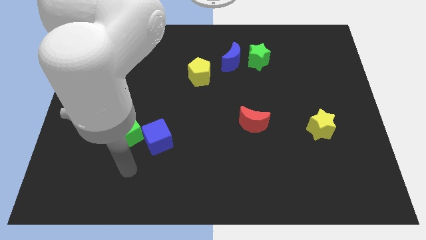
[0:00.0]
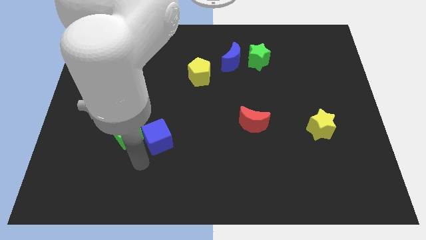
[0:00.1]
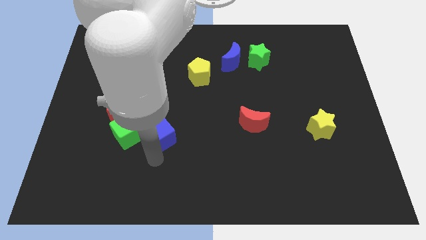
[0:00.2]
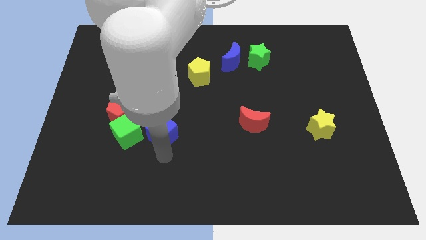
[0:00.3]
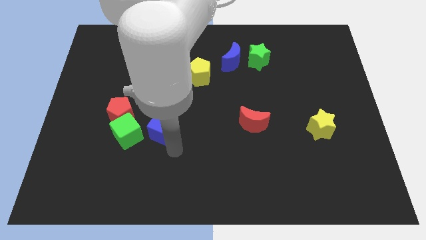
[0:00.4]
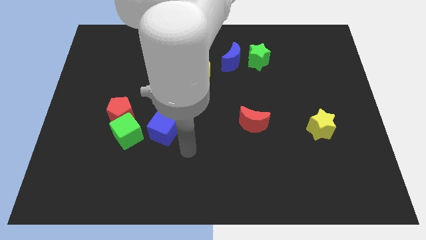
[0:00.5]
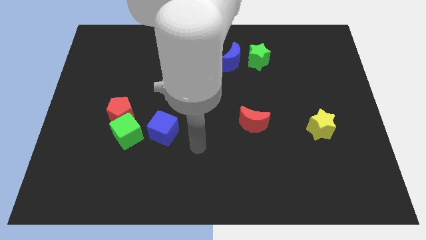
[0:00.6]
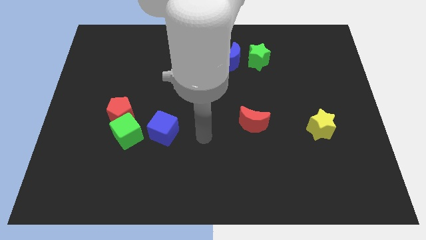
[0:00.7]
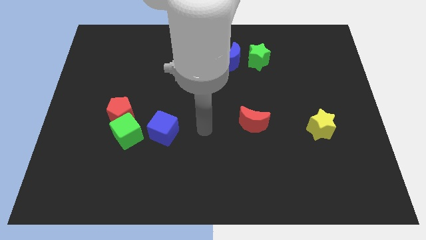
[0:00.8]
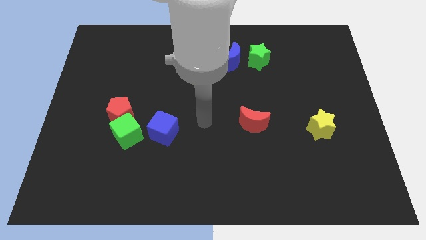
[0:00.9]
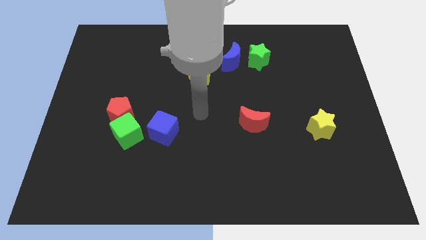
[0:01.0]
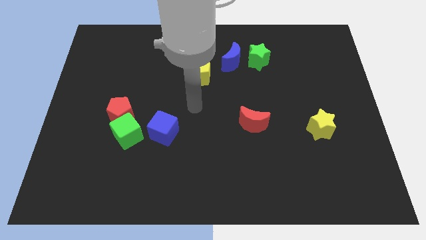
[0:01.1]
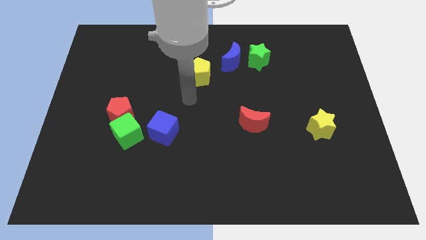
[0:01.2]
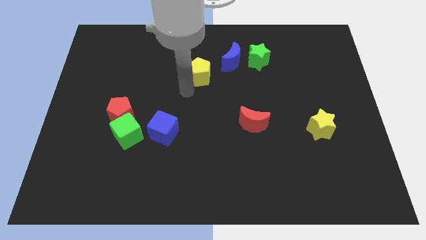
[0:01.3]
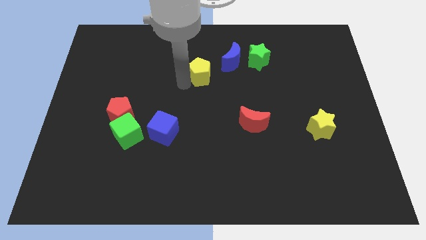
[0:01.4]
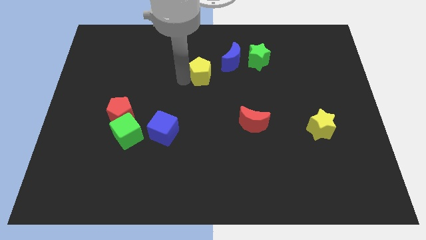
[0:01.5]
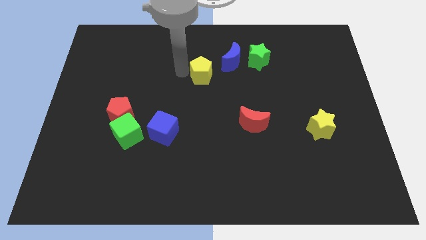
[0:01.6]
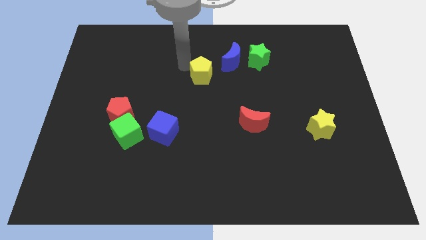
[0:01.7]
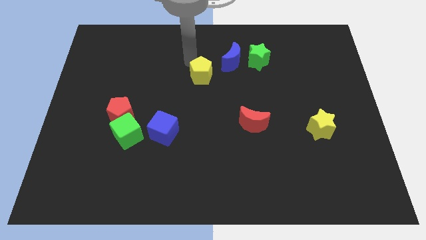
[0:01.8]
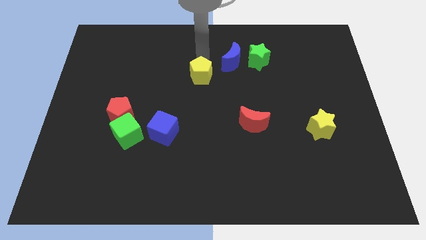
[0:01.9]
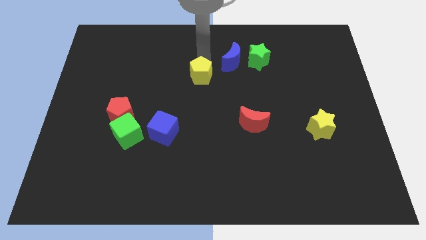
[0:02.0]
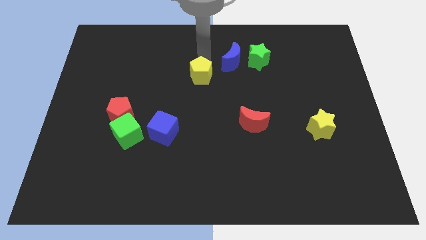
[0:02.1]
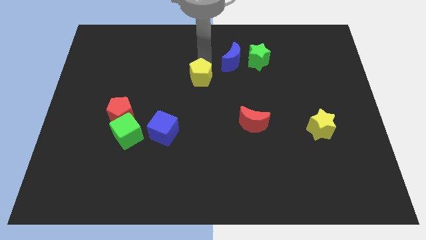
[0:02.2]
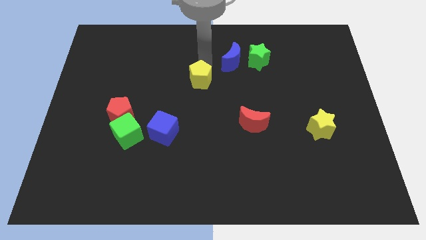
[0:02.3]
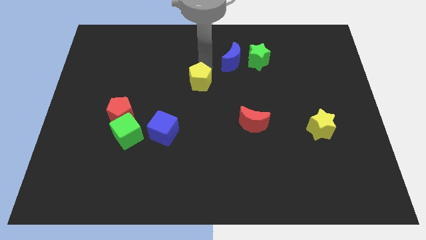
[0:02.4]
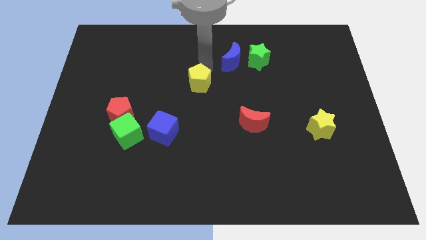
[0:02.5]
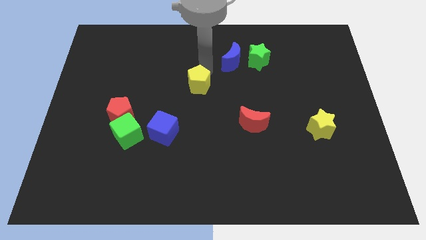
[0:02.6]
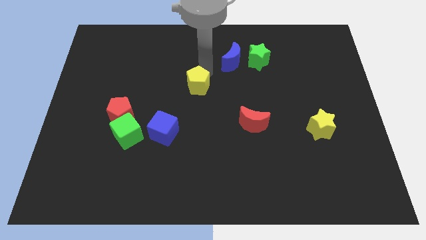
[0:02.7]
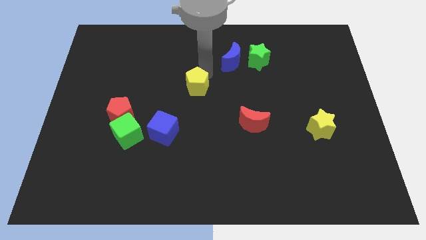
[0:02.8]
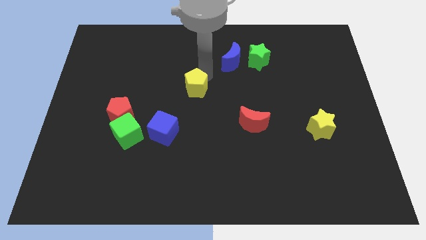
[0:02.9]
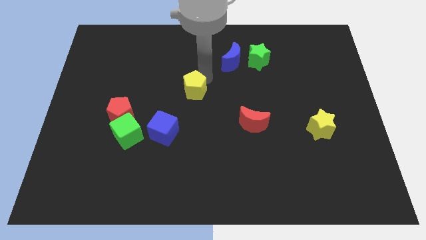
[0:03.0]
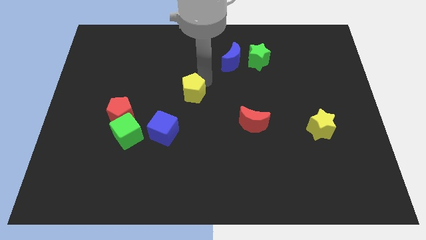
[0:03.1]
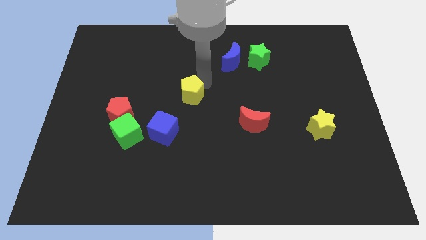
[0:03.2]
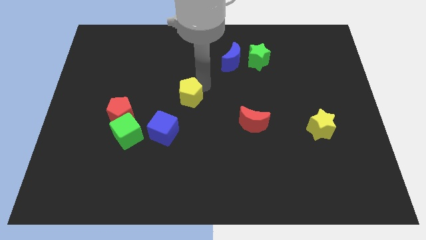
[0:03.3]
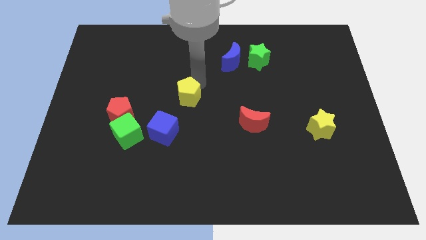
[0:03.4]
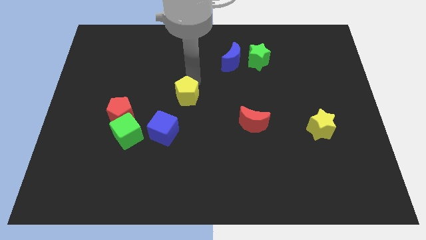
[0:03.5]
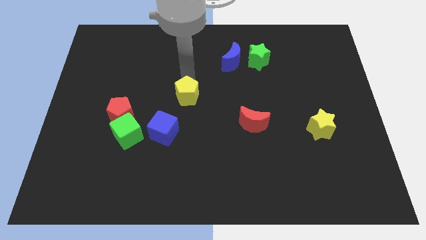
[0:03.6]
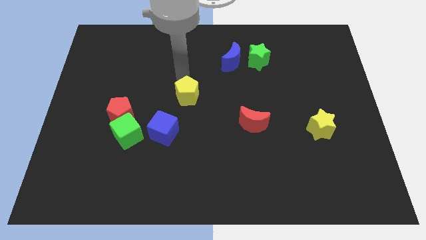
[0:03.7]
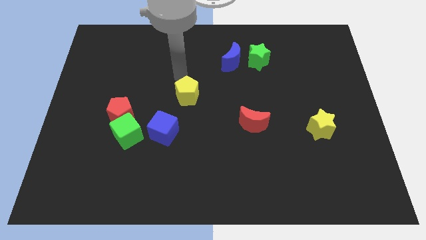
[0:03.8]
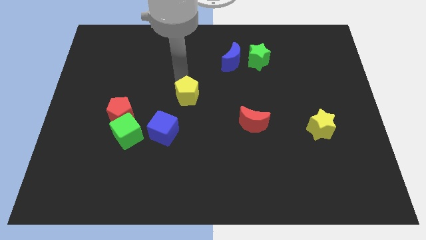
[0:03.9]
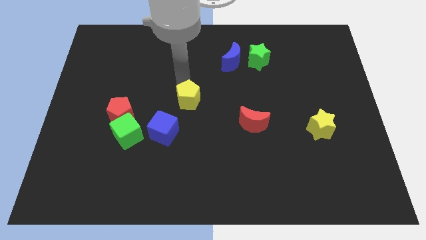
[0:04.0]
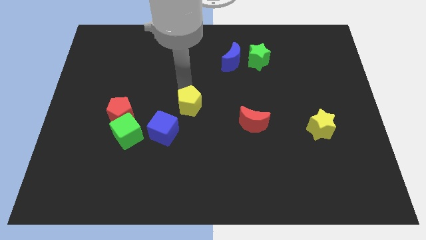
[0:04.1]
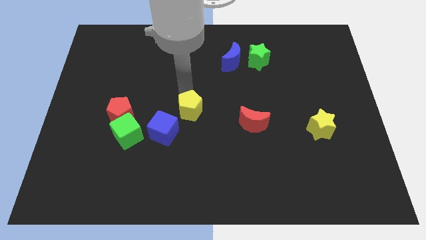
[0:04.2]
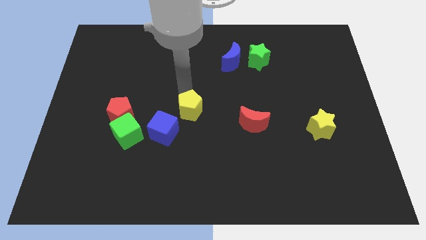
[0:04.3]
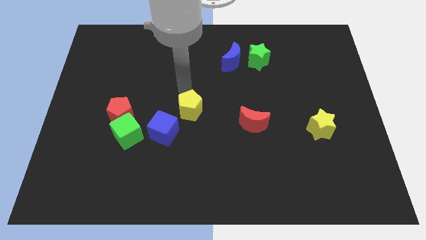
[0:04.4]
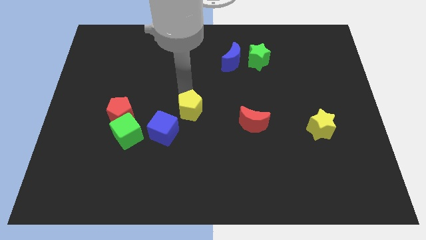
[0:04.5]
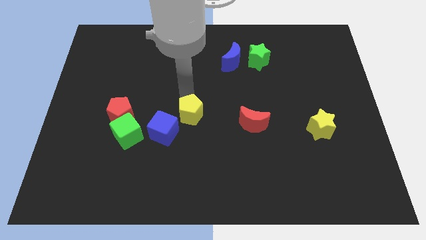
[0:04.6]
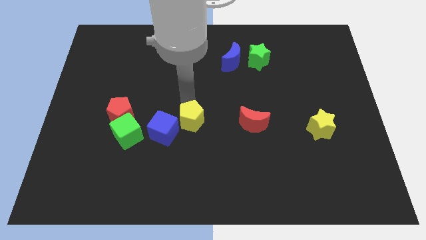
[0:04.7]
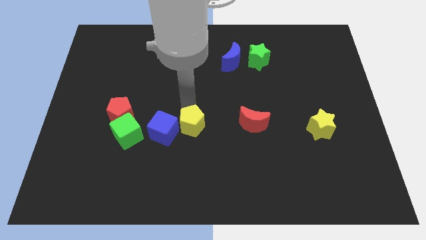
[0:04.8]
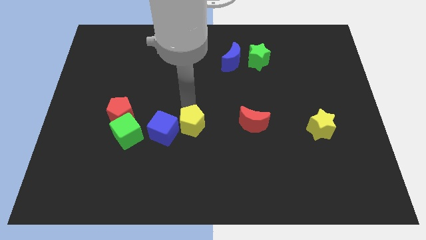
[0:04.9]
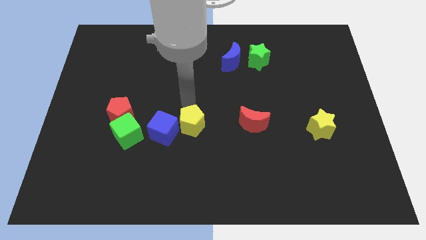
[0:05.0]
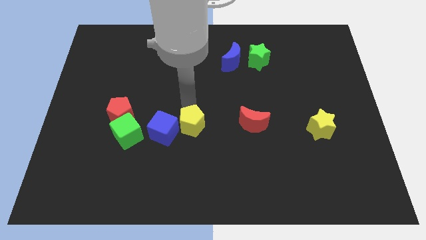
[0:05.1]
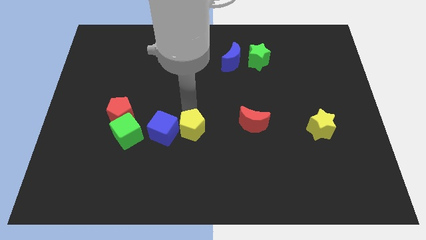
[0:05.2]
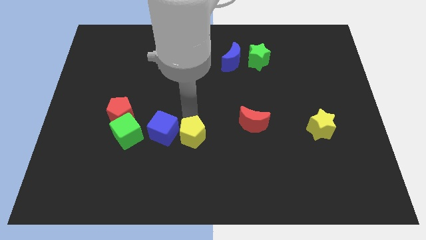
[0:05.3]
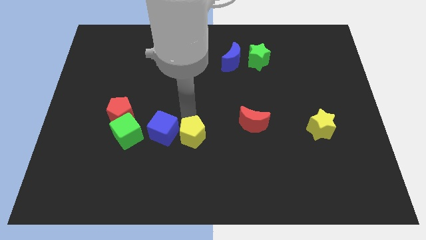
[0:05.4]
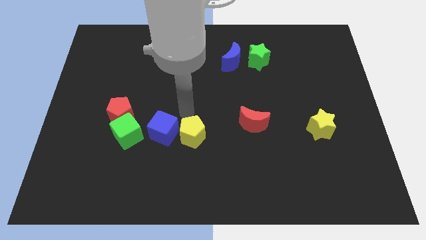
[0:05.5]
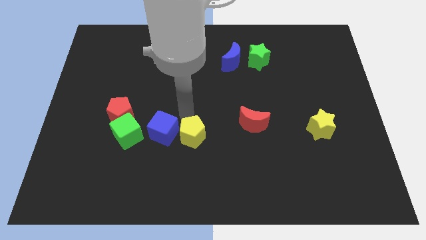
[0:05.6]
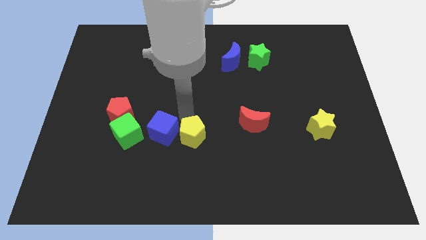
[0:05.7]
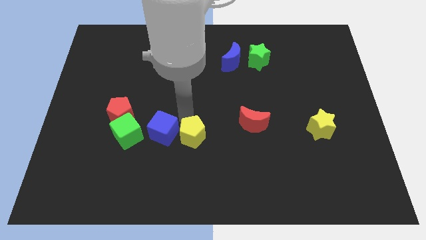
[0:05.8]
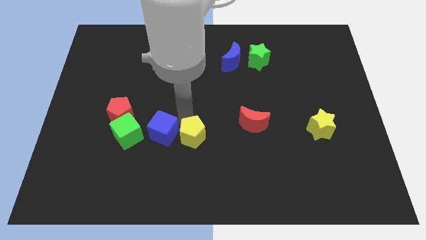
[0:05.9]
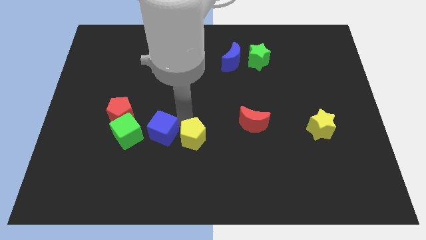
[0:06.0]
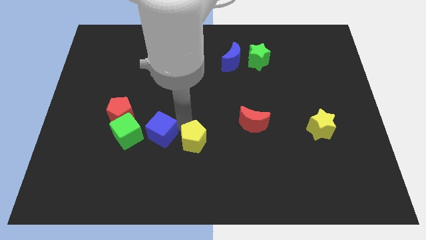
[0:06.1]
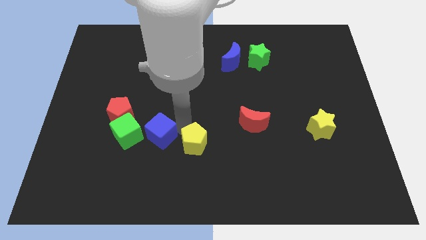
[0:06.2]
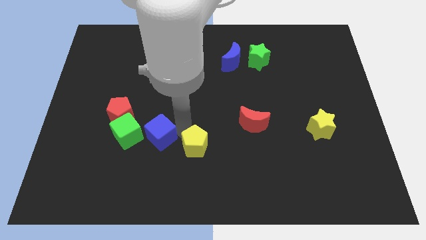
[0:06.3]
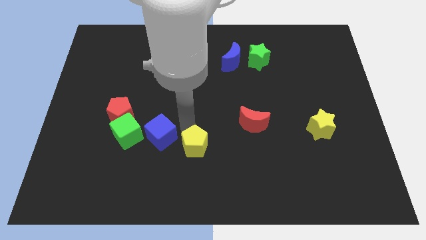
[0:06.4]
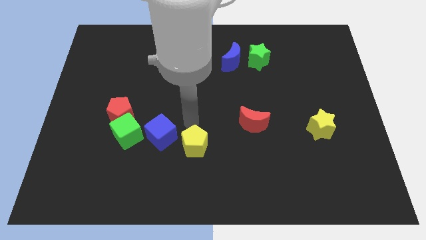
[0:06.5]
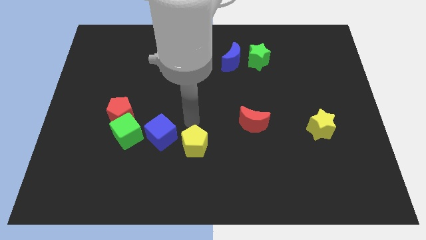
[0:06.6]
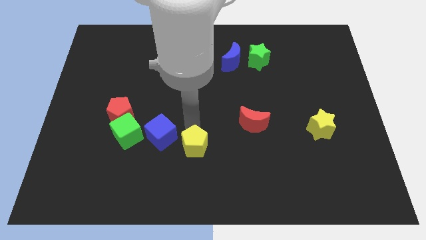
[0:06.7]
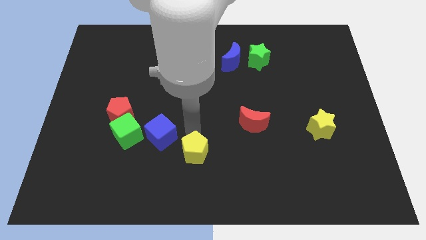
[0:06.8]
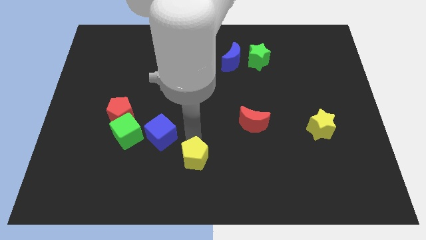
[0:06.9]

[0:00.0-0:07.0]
push the yellow pentagon to the bottom side
